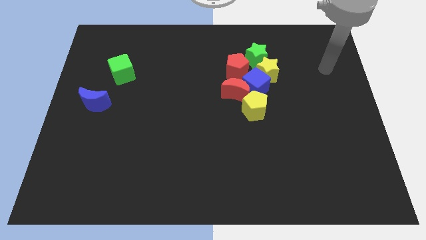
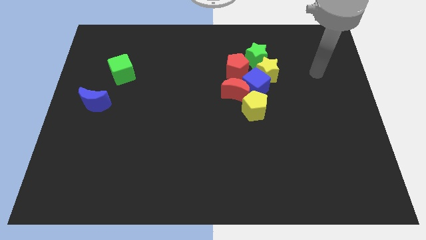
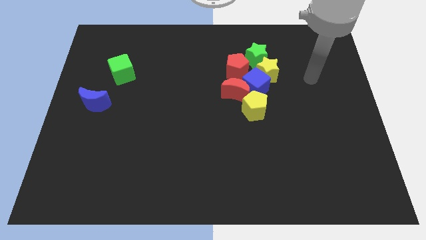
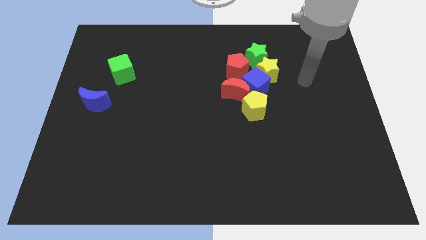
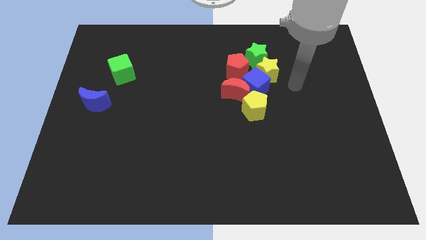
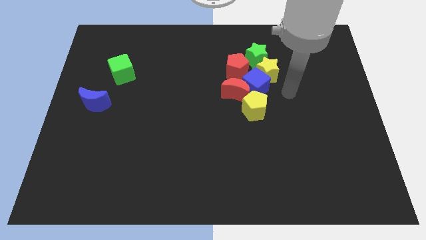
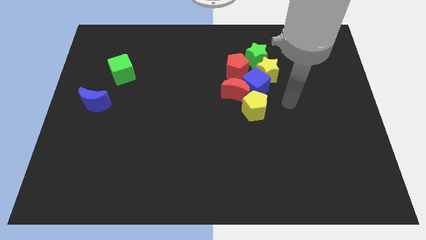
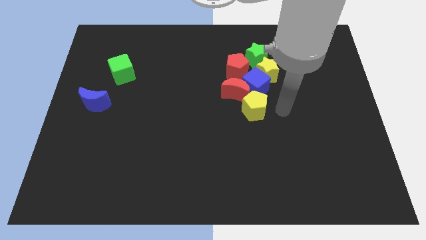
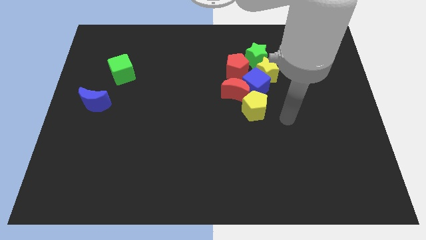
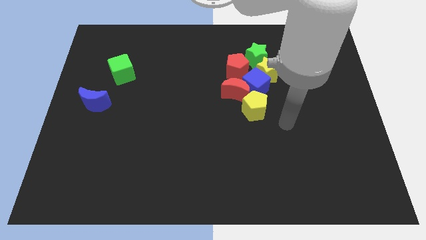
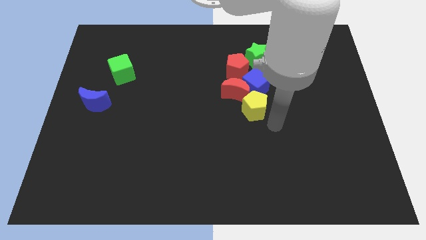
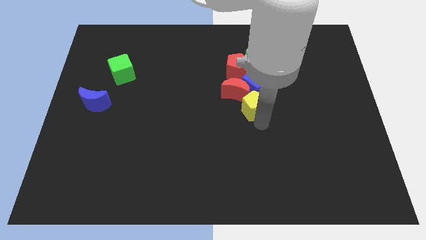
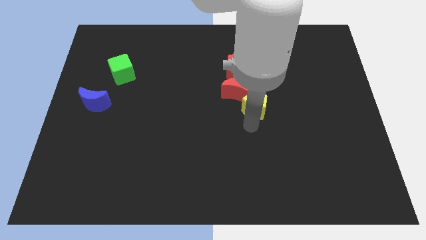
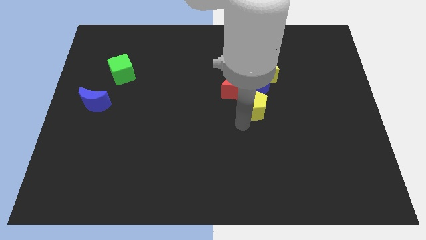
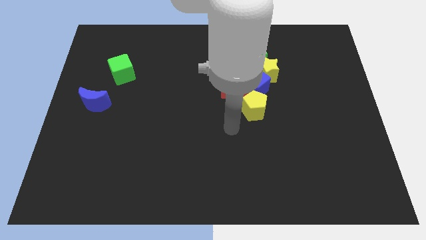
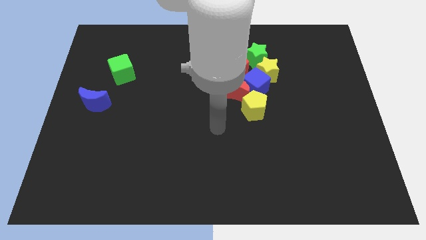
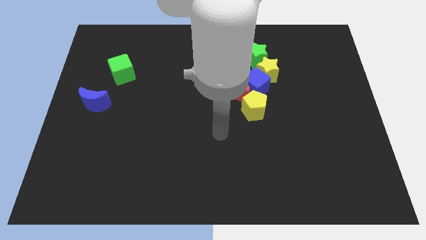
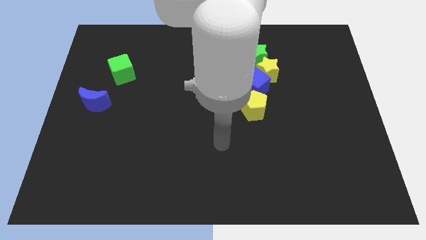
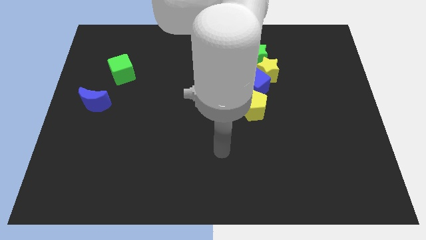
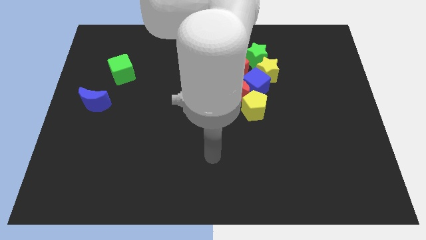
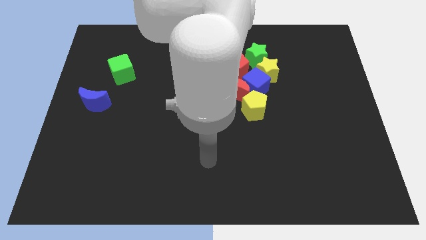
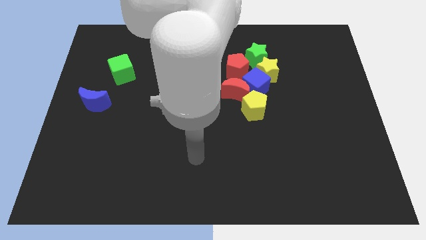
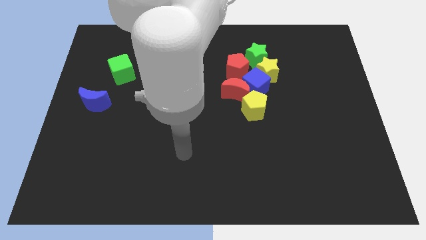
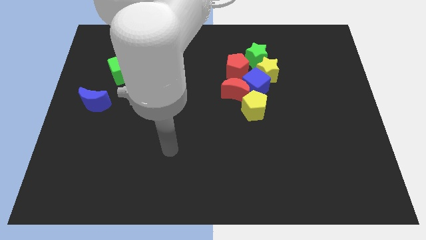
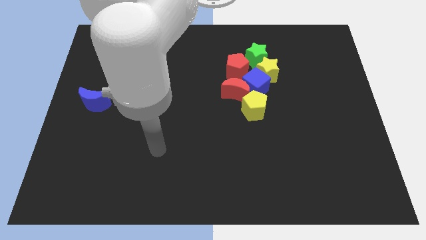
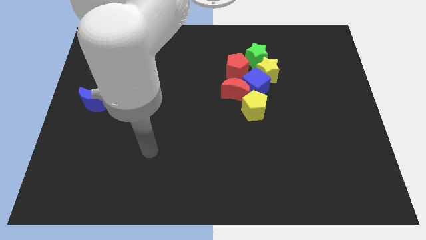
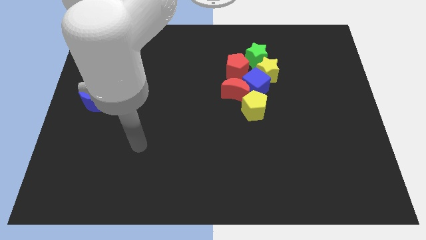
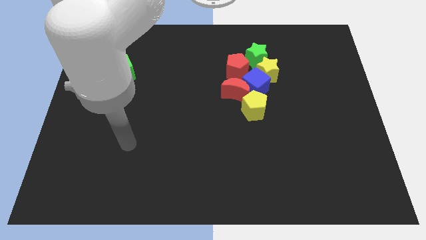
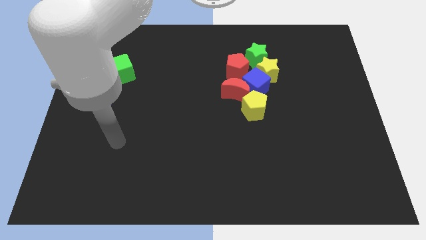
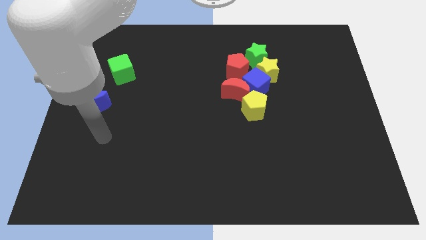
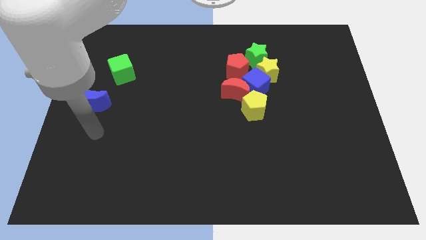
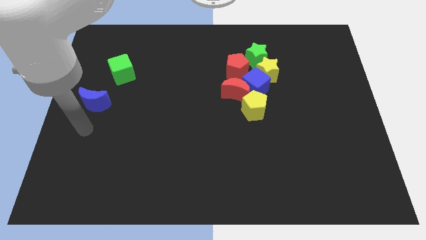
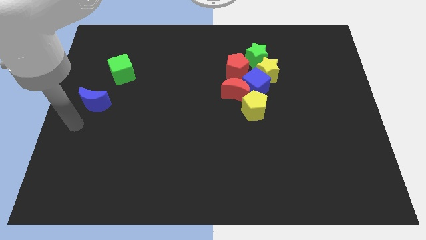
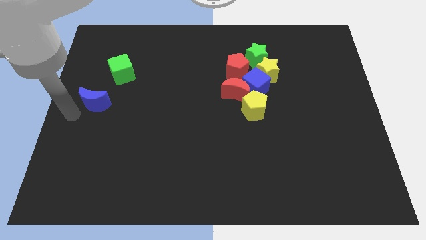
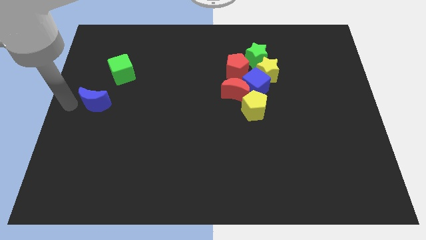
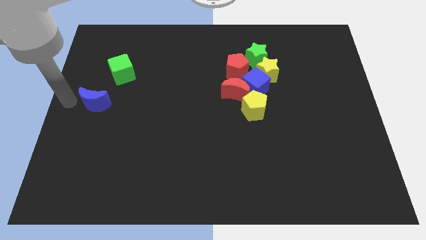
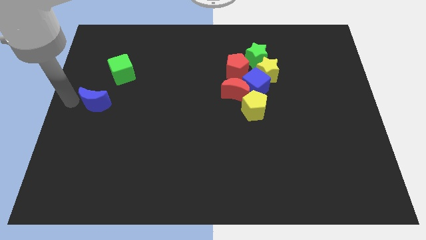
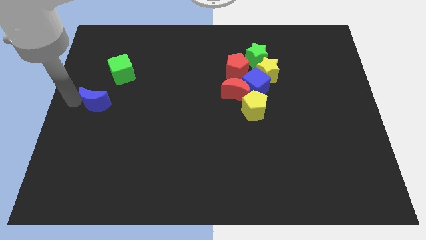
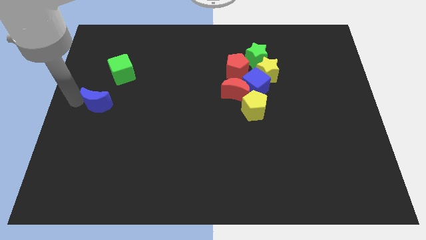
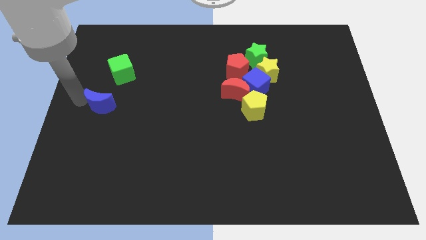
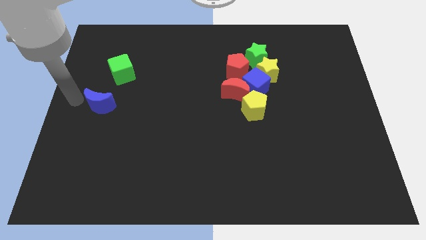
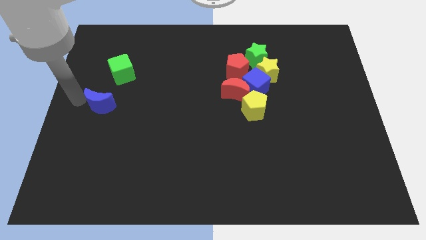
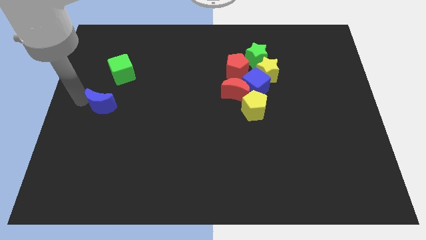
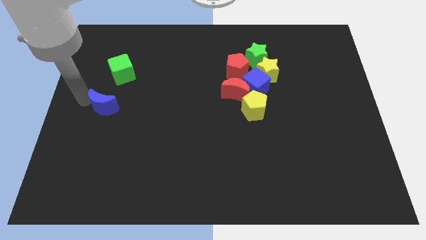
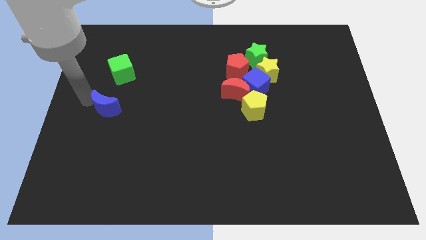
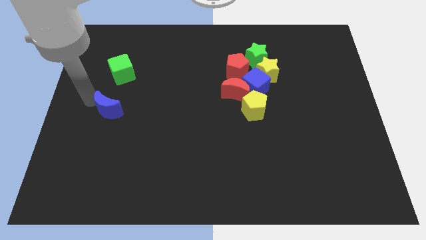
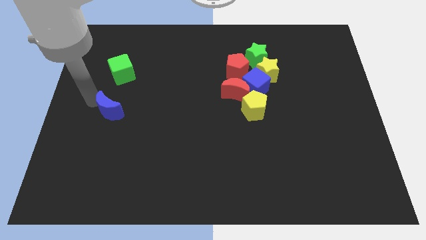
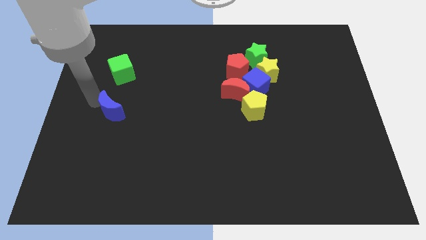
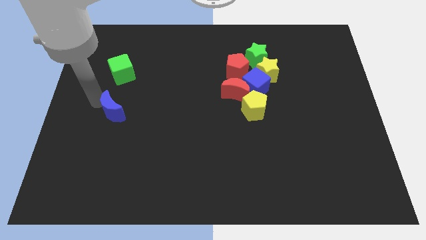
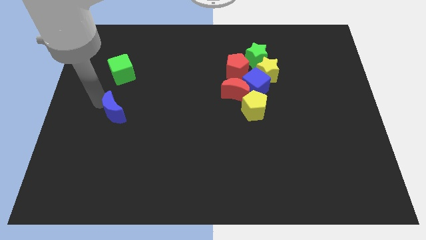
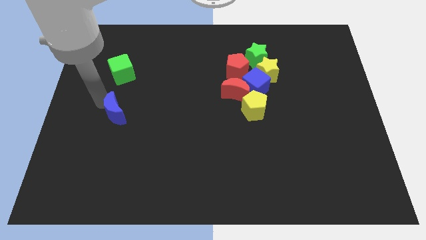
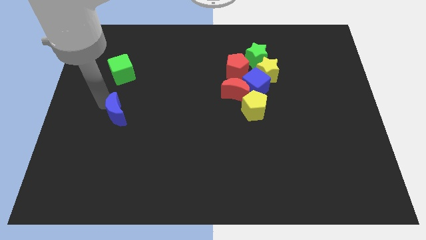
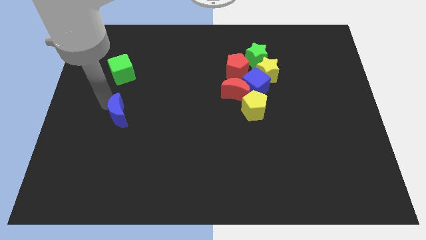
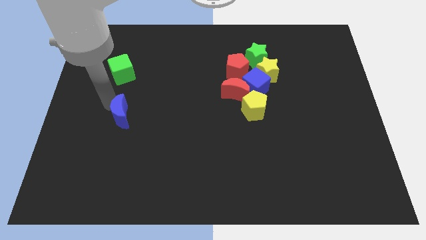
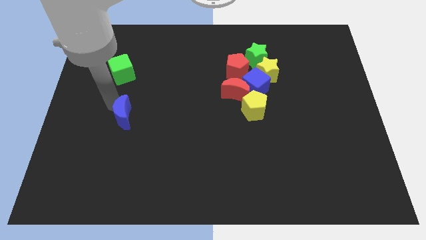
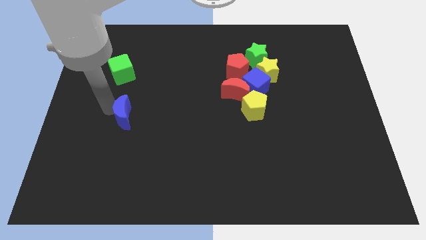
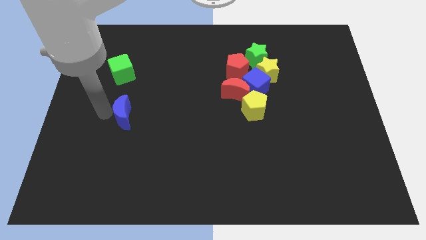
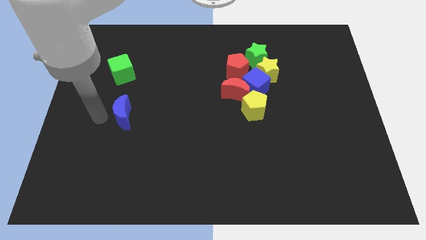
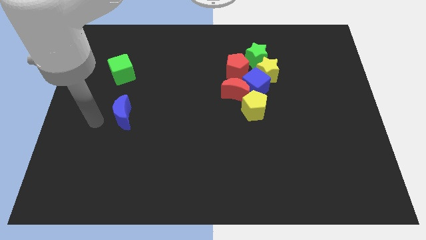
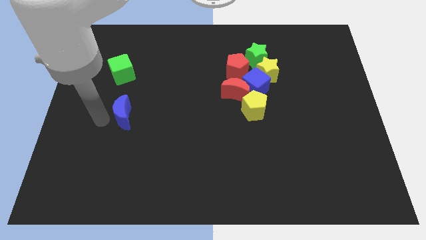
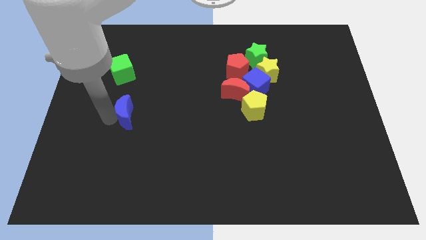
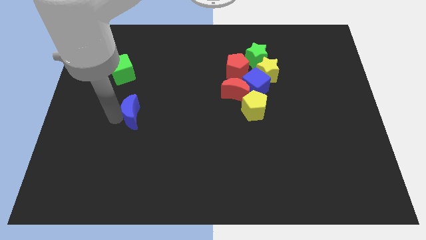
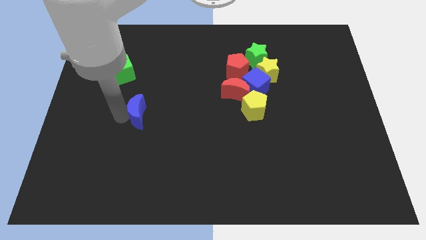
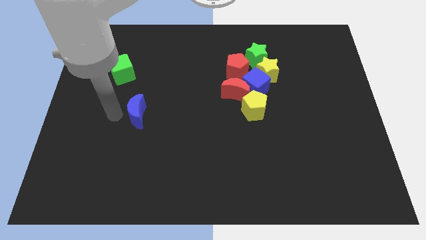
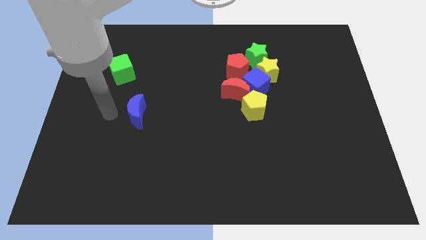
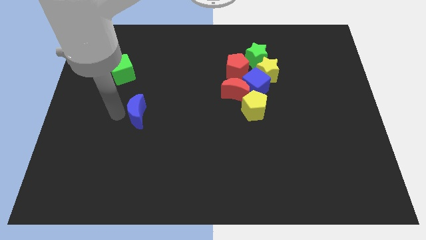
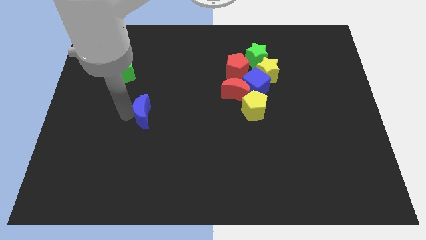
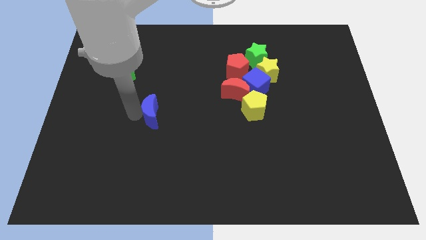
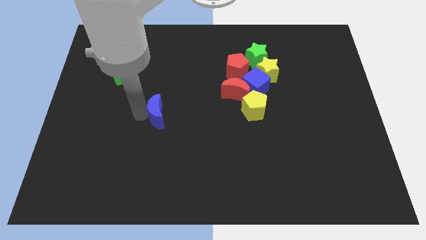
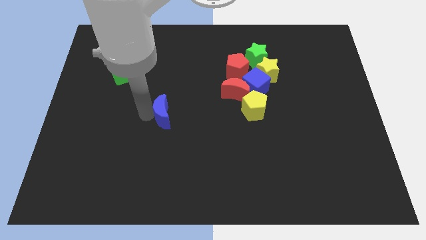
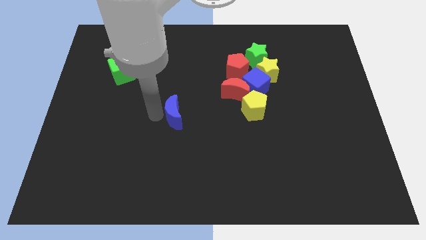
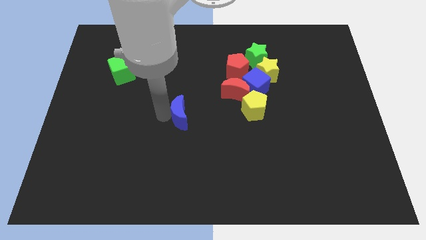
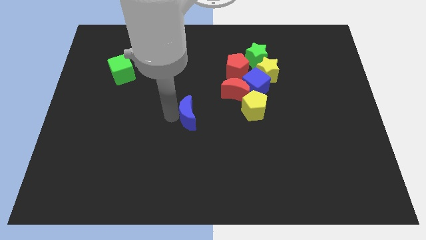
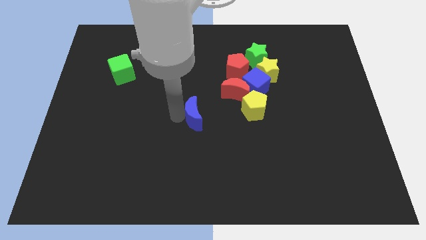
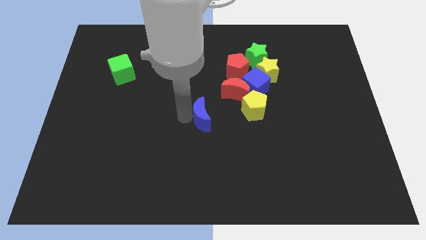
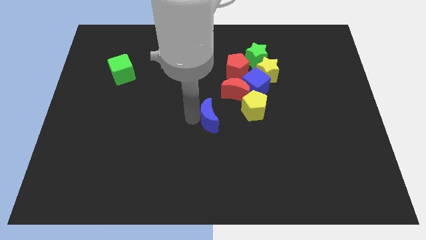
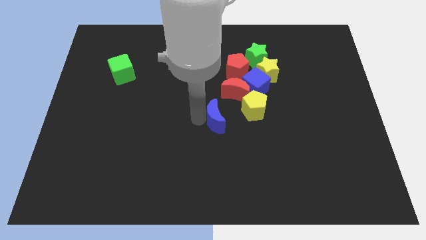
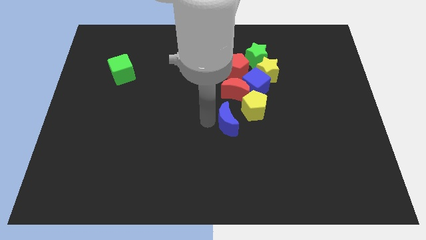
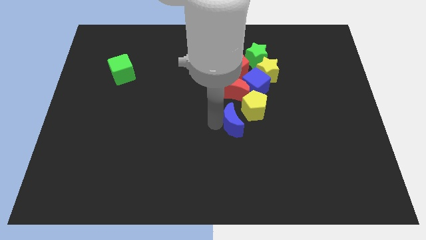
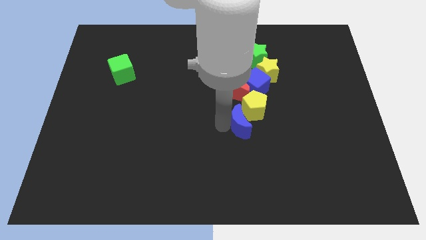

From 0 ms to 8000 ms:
put the blue moon towards the yellow pentagon
